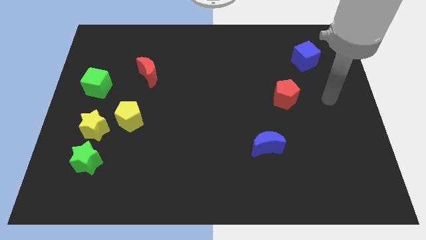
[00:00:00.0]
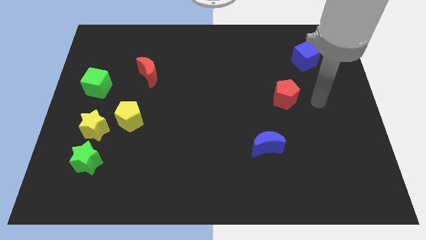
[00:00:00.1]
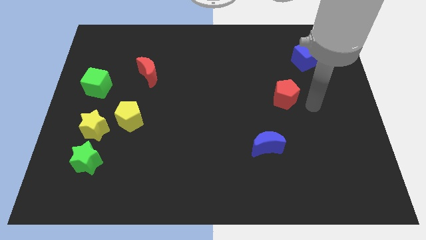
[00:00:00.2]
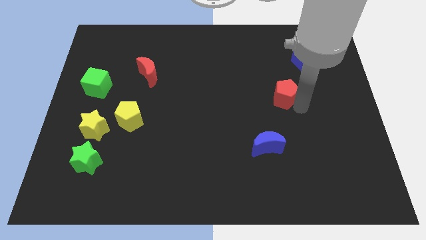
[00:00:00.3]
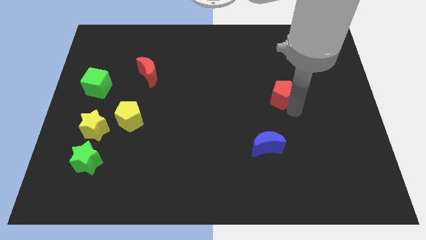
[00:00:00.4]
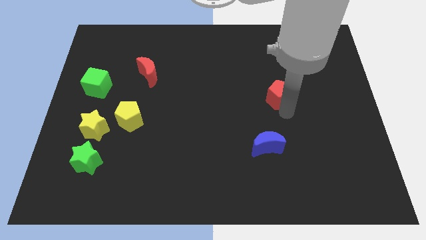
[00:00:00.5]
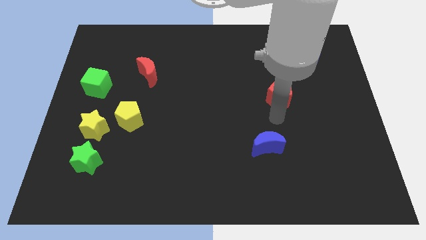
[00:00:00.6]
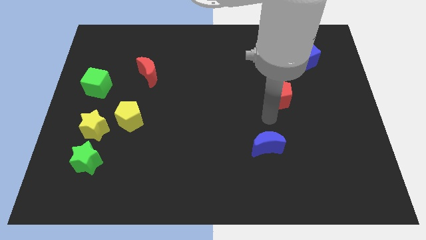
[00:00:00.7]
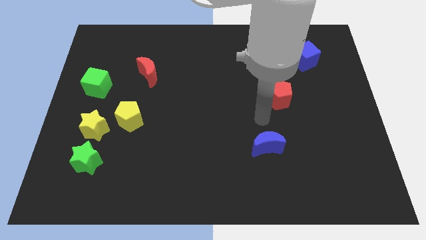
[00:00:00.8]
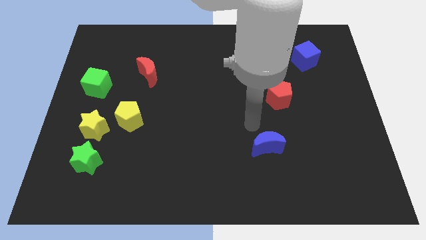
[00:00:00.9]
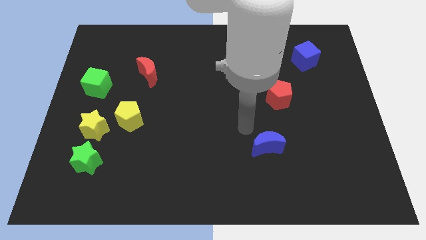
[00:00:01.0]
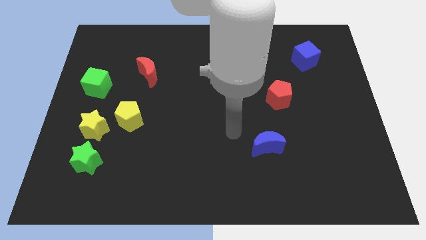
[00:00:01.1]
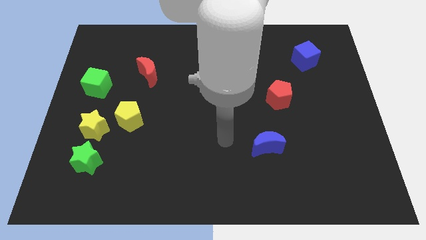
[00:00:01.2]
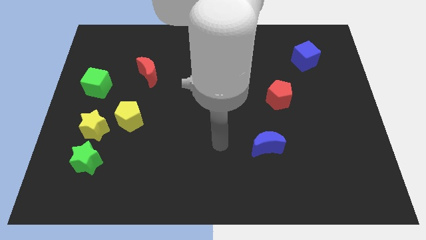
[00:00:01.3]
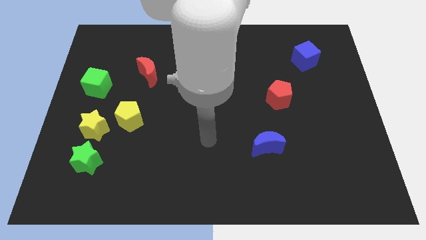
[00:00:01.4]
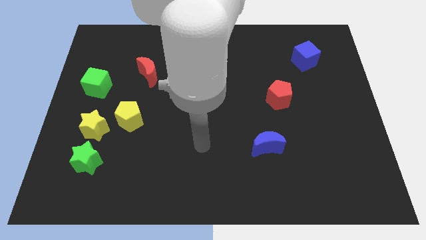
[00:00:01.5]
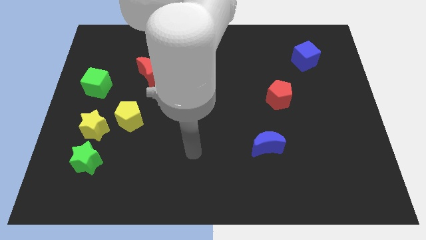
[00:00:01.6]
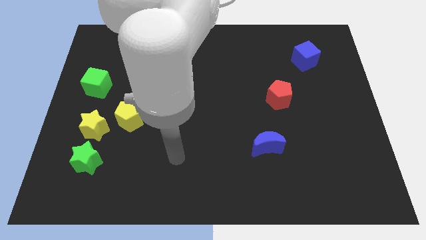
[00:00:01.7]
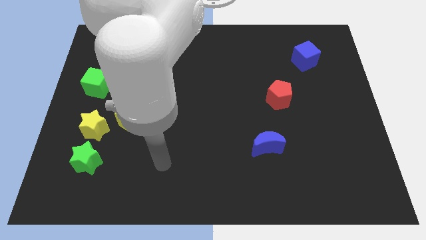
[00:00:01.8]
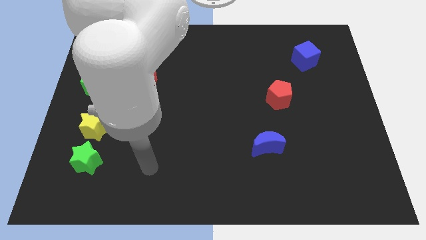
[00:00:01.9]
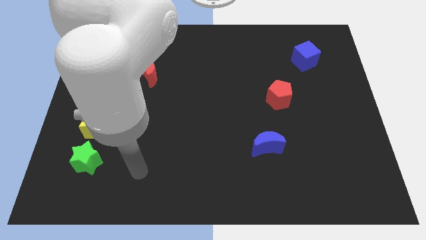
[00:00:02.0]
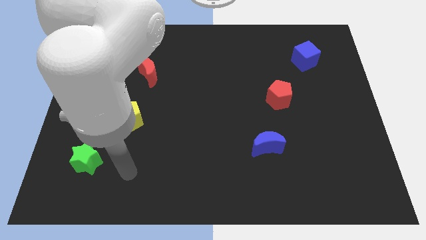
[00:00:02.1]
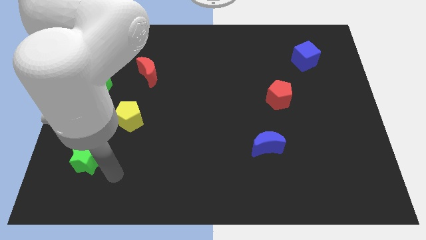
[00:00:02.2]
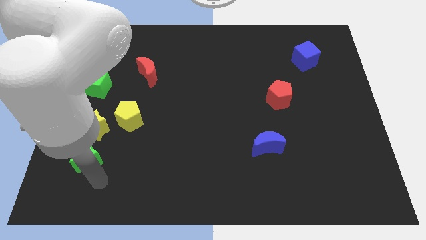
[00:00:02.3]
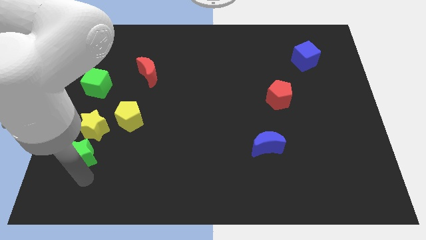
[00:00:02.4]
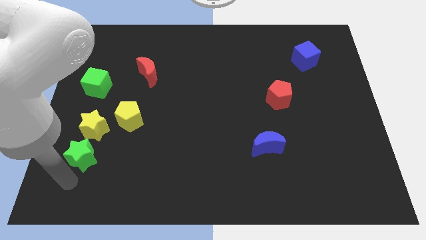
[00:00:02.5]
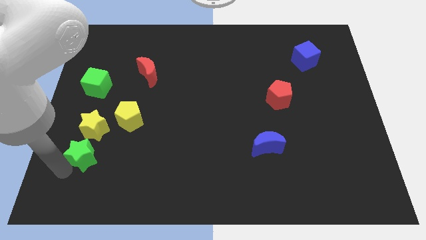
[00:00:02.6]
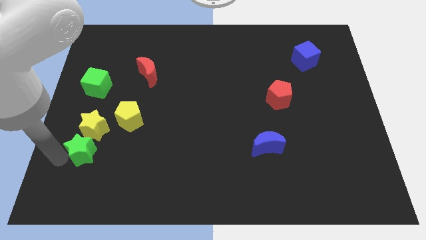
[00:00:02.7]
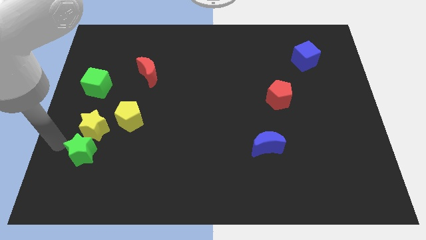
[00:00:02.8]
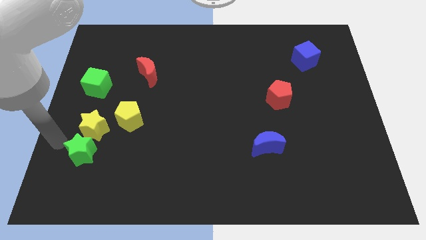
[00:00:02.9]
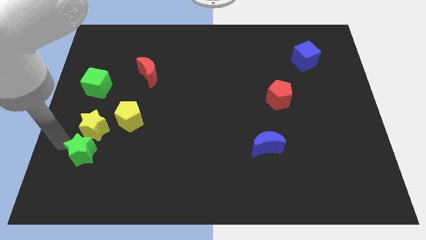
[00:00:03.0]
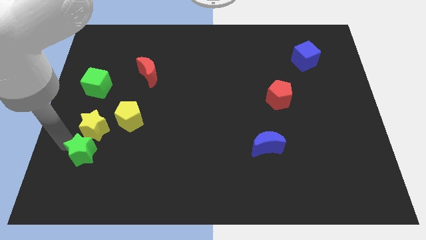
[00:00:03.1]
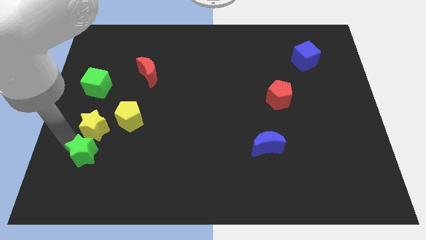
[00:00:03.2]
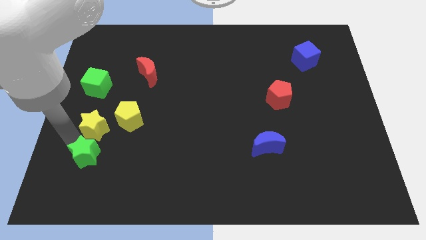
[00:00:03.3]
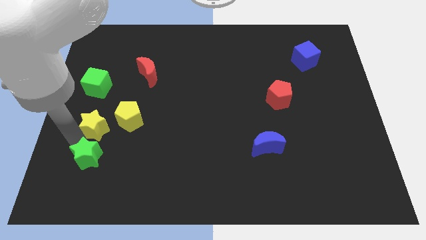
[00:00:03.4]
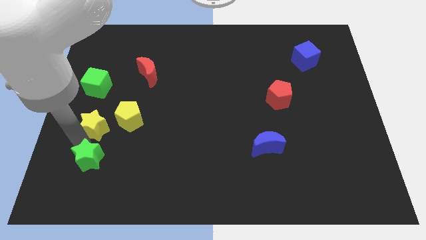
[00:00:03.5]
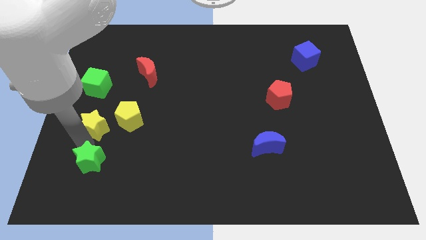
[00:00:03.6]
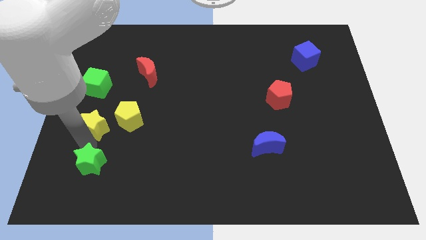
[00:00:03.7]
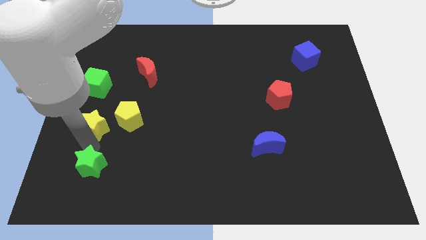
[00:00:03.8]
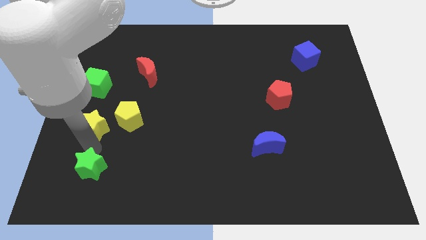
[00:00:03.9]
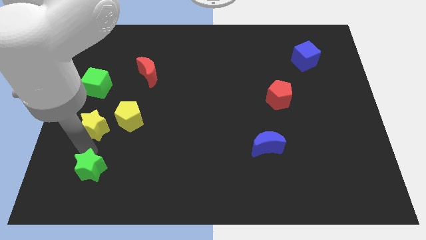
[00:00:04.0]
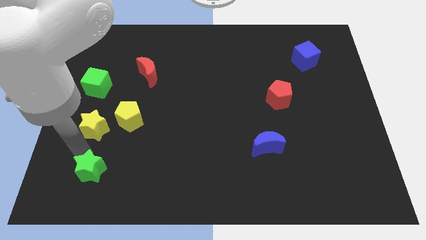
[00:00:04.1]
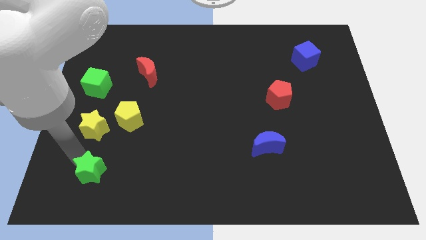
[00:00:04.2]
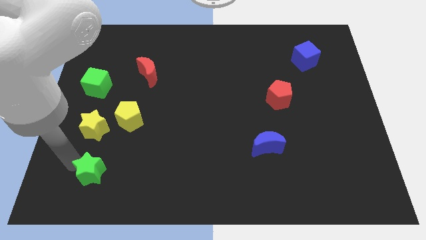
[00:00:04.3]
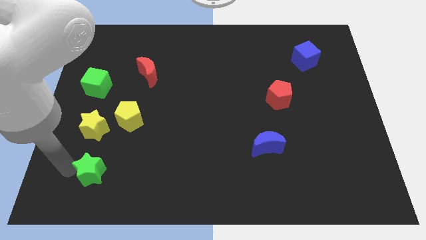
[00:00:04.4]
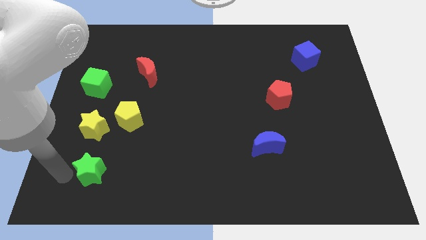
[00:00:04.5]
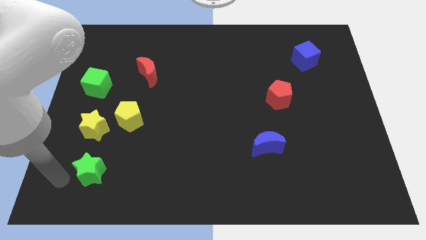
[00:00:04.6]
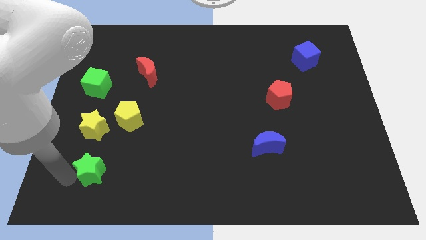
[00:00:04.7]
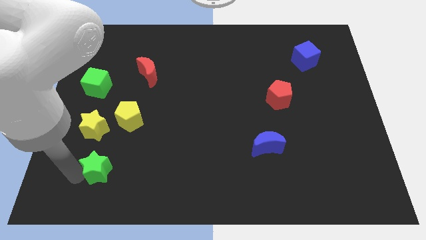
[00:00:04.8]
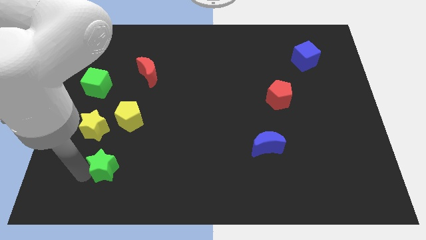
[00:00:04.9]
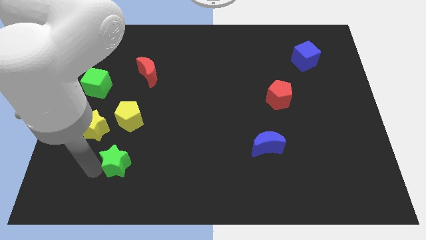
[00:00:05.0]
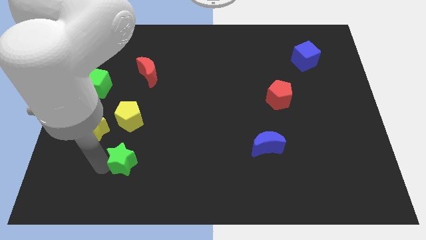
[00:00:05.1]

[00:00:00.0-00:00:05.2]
move the green star a bit right

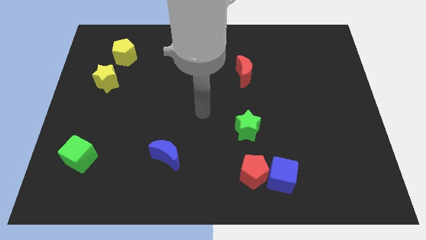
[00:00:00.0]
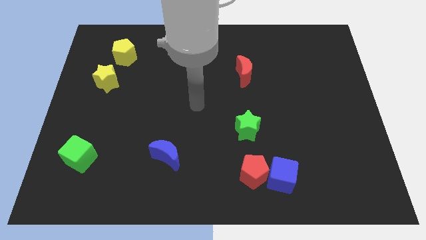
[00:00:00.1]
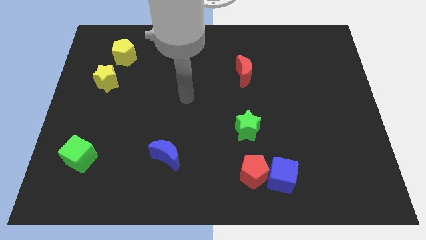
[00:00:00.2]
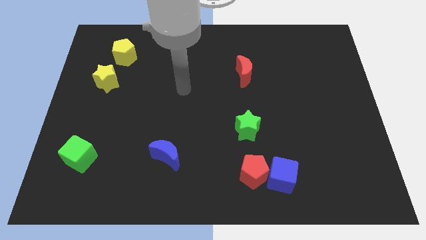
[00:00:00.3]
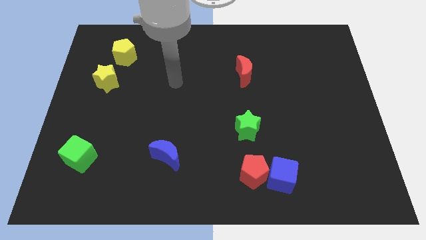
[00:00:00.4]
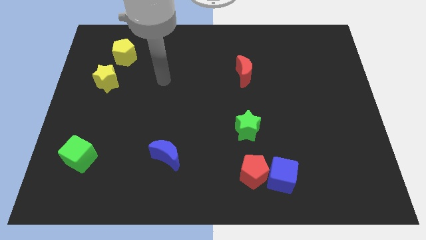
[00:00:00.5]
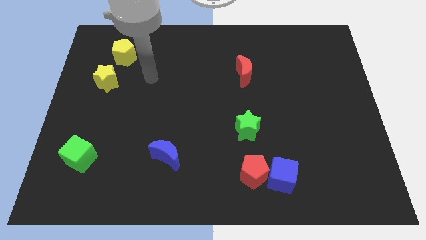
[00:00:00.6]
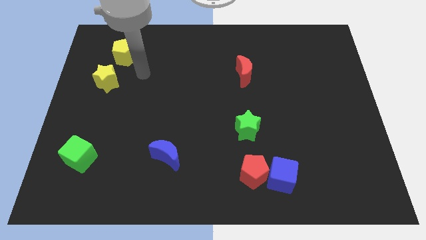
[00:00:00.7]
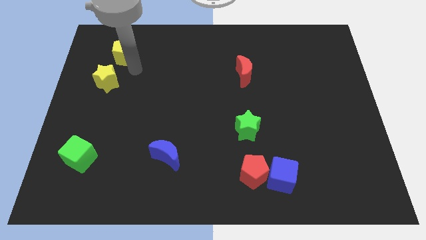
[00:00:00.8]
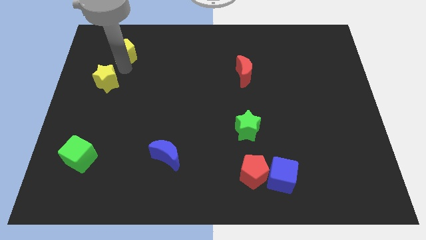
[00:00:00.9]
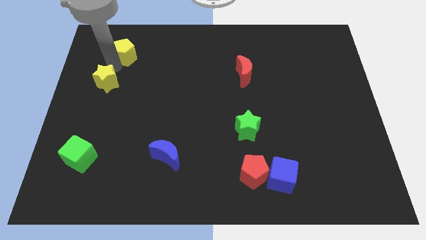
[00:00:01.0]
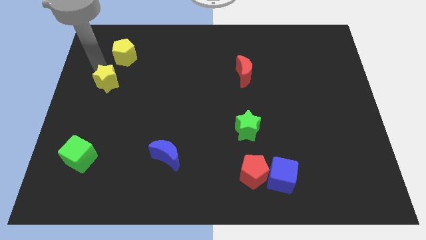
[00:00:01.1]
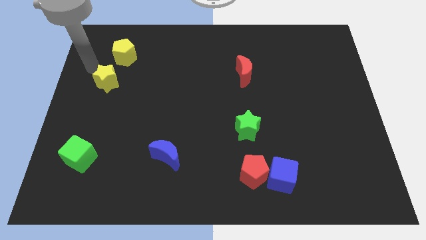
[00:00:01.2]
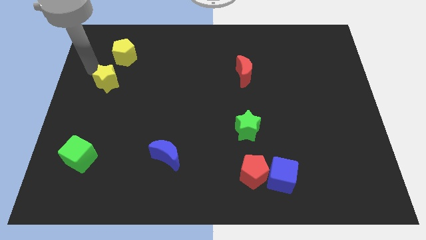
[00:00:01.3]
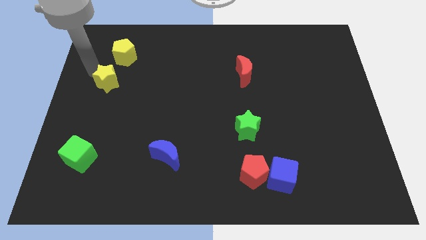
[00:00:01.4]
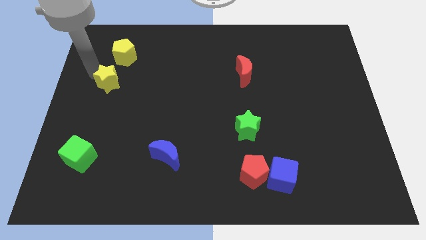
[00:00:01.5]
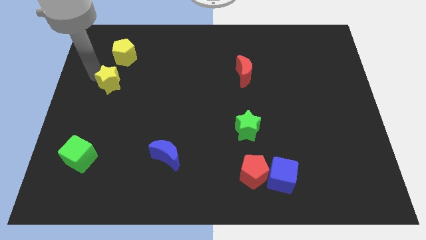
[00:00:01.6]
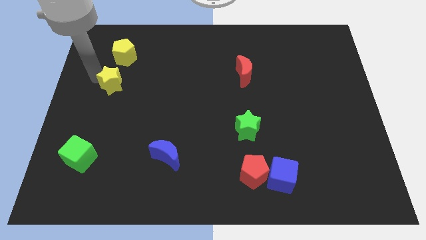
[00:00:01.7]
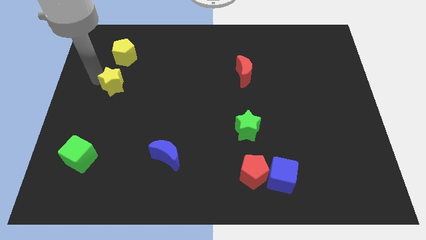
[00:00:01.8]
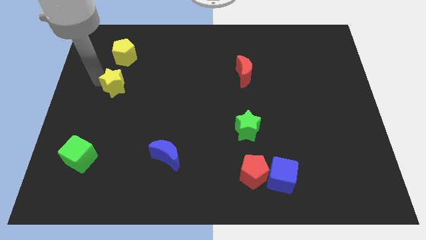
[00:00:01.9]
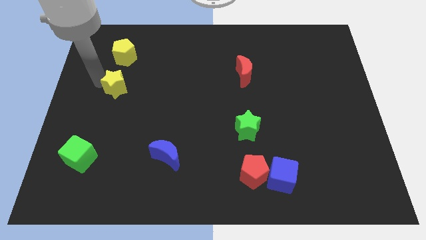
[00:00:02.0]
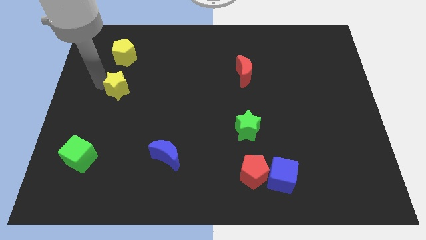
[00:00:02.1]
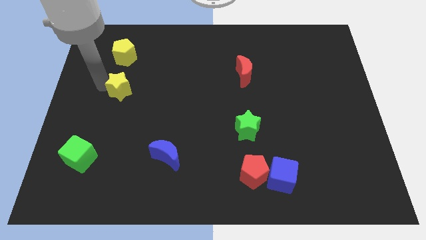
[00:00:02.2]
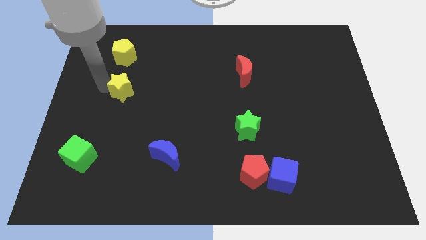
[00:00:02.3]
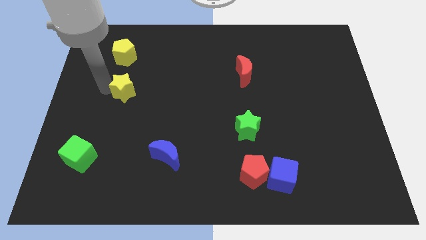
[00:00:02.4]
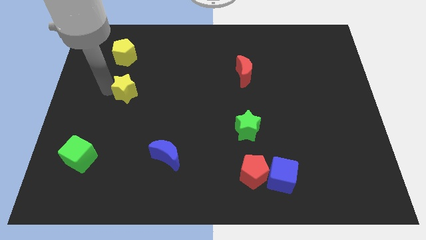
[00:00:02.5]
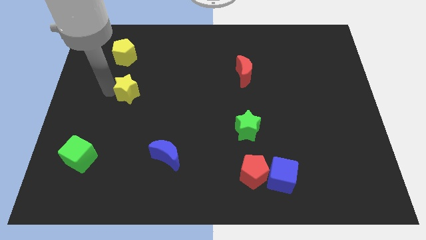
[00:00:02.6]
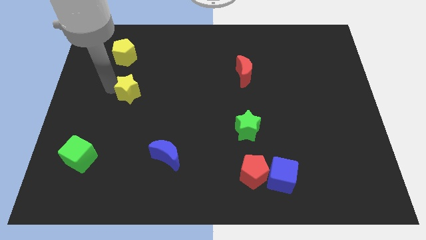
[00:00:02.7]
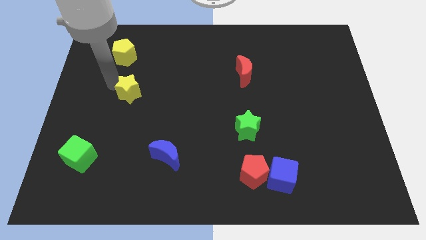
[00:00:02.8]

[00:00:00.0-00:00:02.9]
slide the yellow star somewhat diagonally down and to the right
